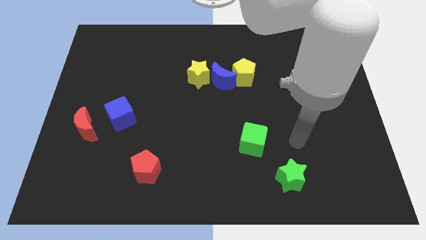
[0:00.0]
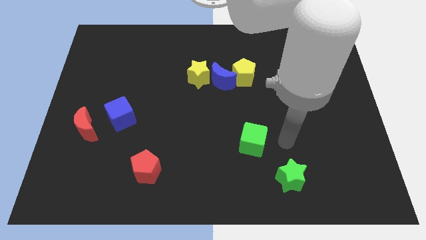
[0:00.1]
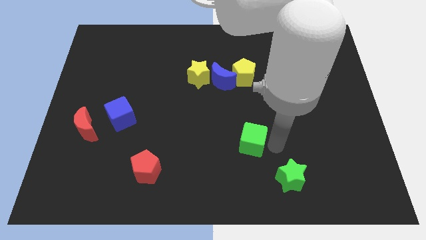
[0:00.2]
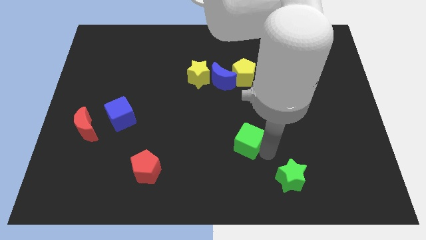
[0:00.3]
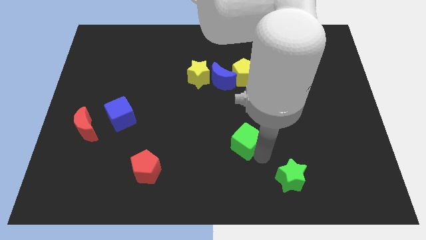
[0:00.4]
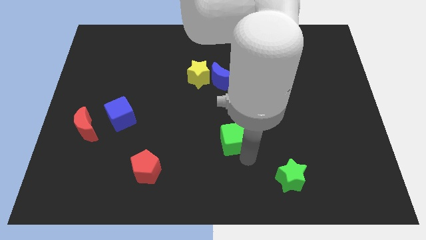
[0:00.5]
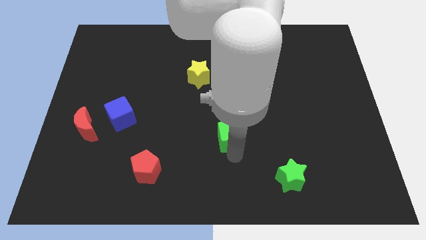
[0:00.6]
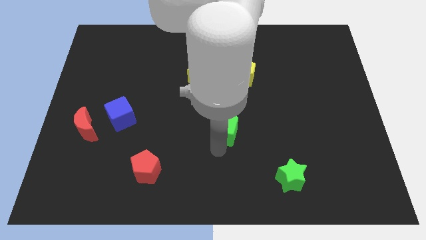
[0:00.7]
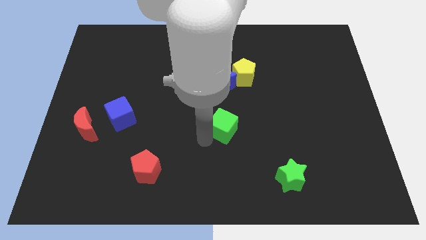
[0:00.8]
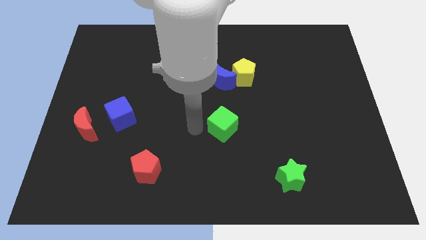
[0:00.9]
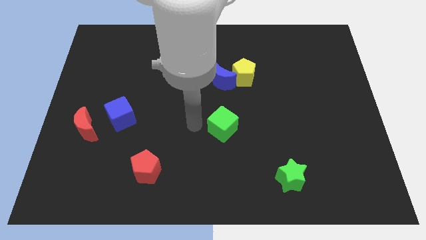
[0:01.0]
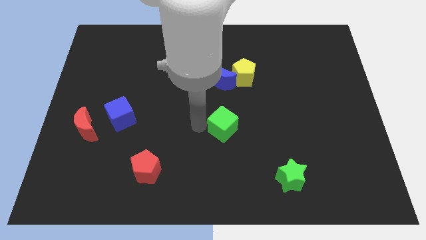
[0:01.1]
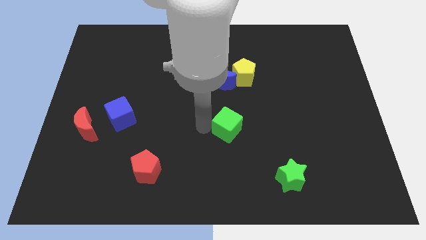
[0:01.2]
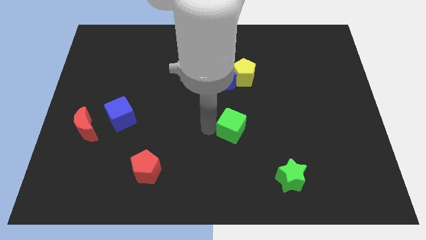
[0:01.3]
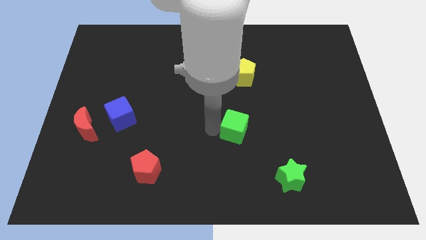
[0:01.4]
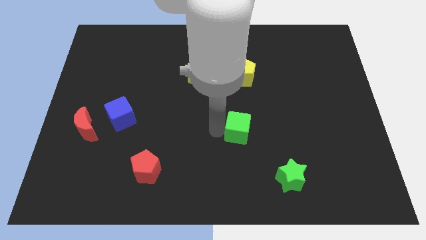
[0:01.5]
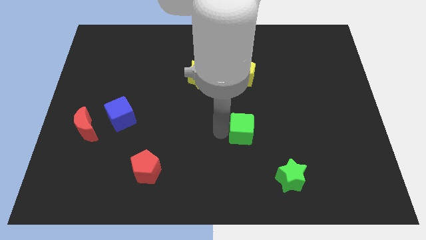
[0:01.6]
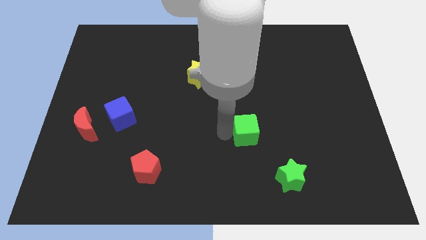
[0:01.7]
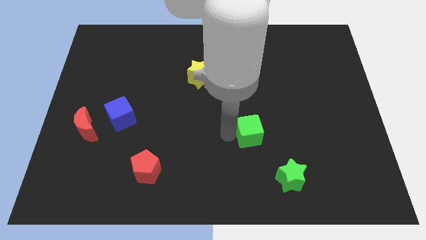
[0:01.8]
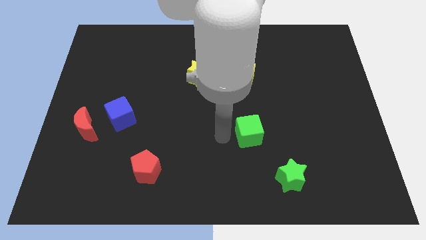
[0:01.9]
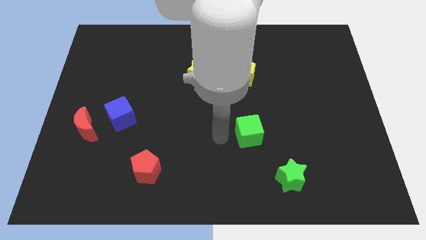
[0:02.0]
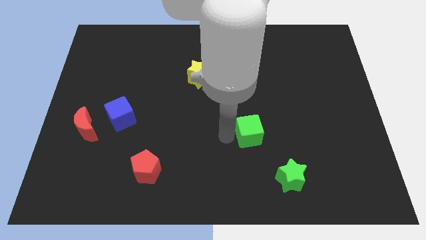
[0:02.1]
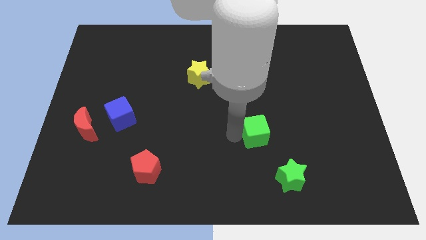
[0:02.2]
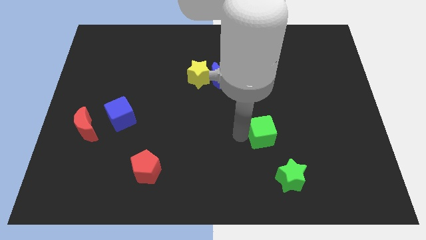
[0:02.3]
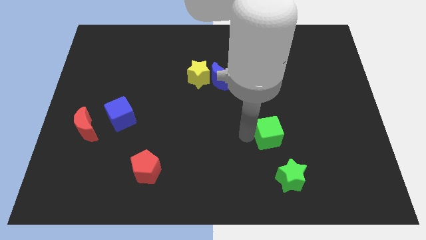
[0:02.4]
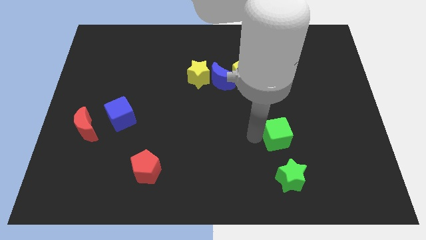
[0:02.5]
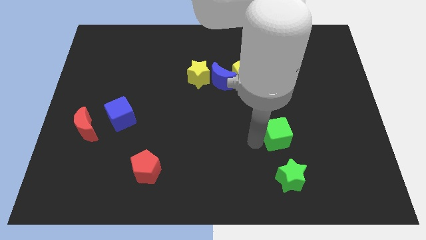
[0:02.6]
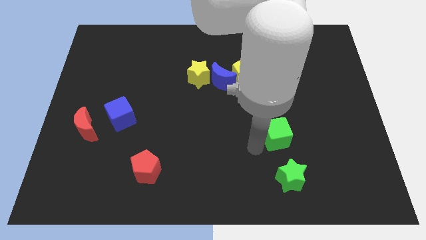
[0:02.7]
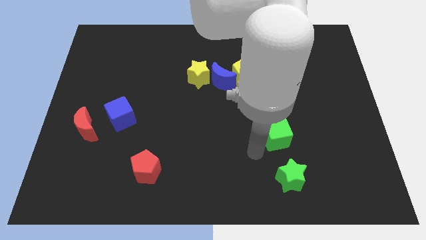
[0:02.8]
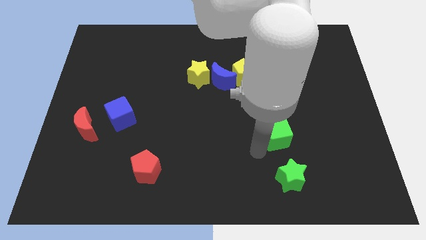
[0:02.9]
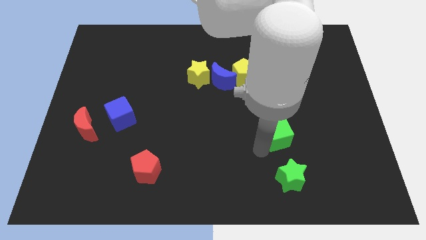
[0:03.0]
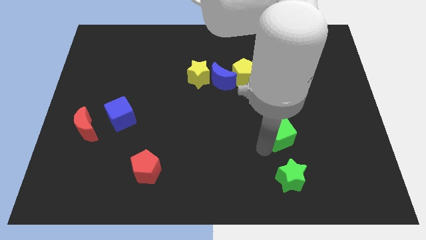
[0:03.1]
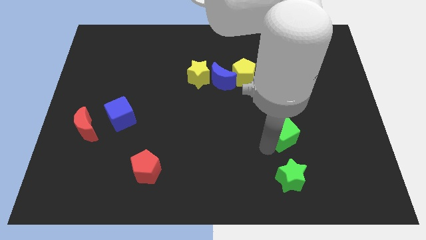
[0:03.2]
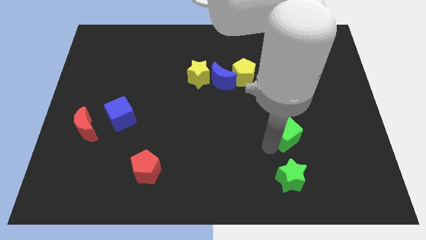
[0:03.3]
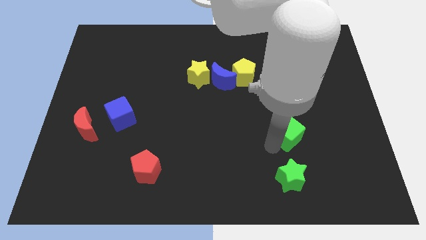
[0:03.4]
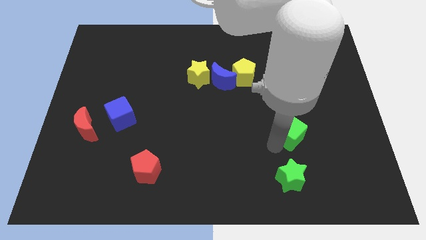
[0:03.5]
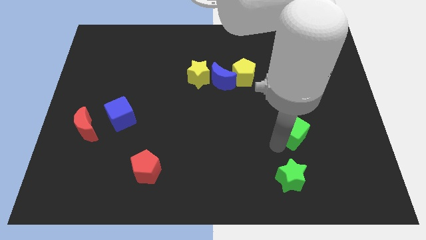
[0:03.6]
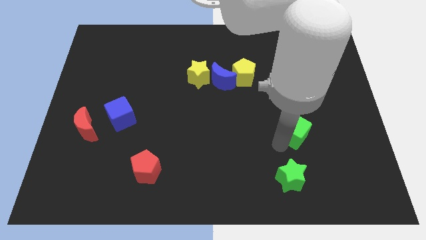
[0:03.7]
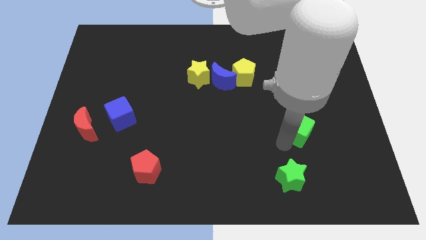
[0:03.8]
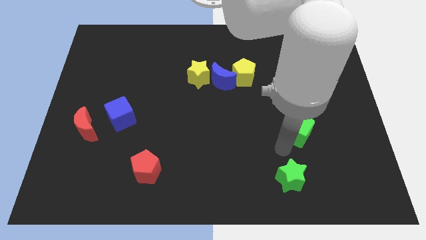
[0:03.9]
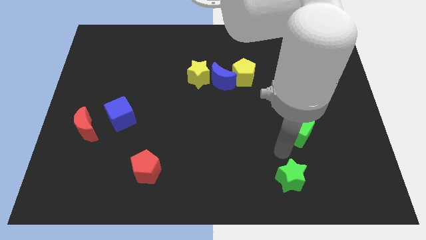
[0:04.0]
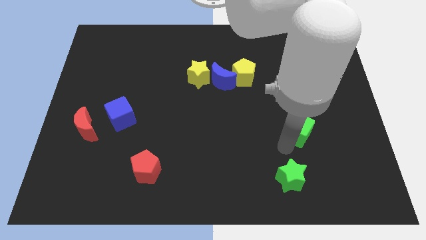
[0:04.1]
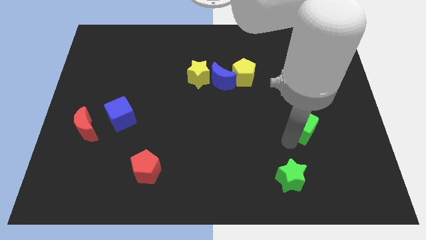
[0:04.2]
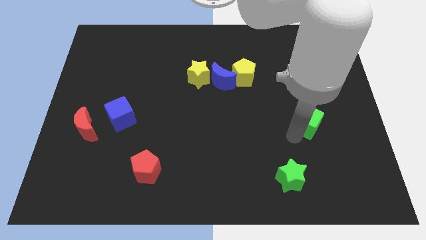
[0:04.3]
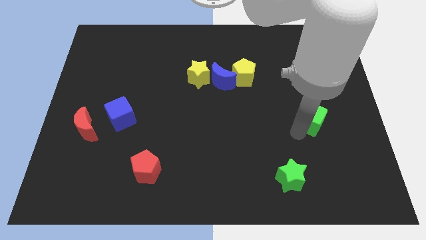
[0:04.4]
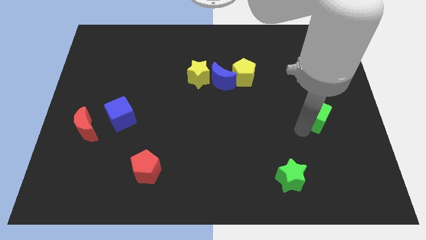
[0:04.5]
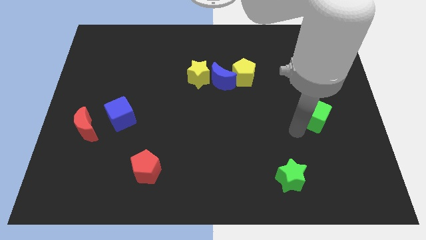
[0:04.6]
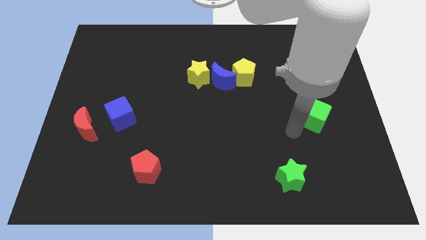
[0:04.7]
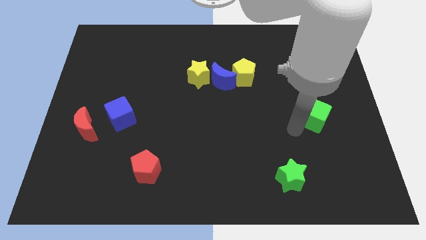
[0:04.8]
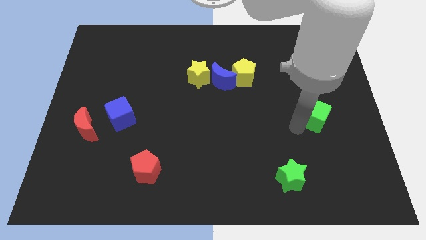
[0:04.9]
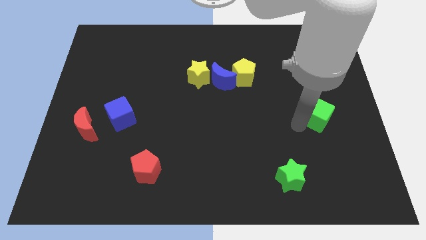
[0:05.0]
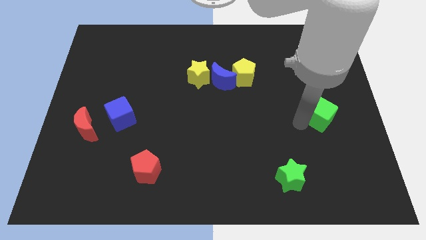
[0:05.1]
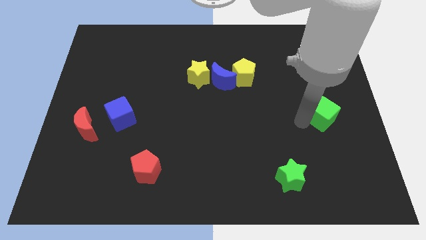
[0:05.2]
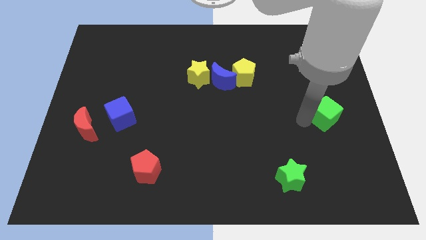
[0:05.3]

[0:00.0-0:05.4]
slide the green cube to the center right
